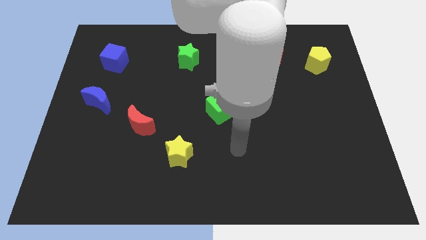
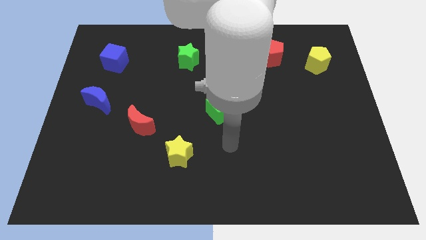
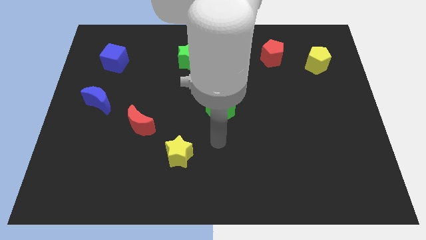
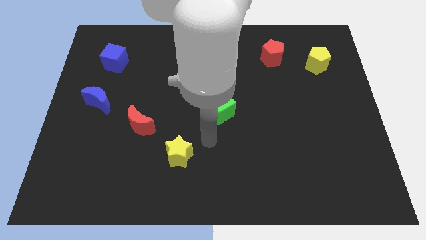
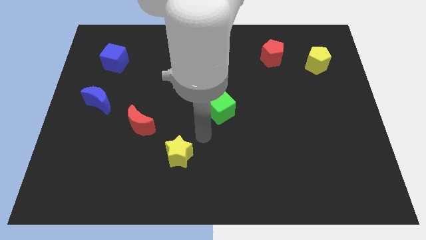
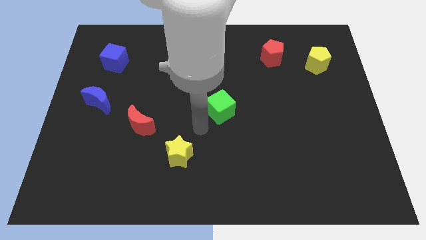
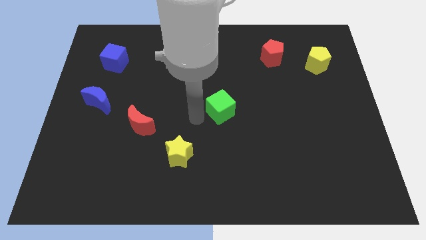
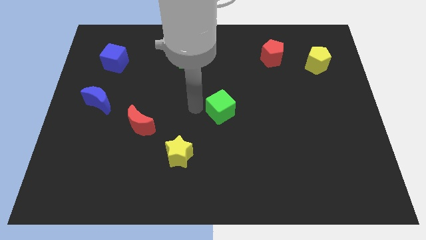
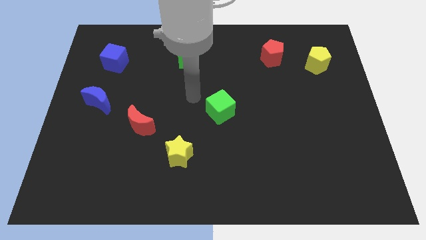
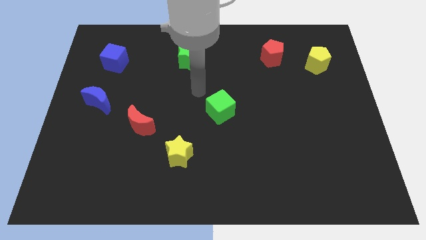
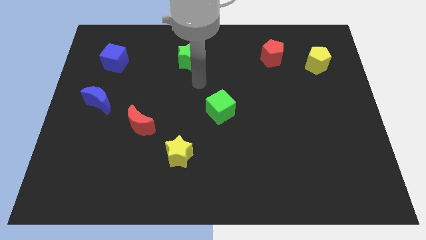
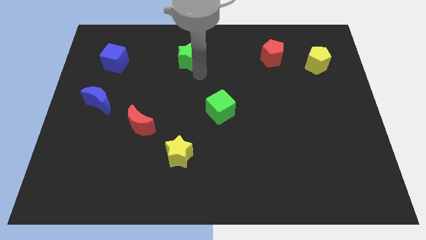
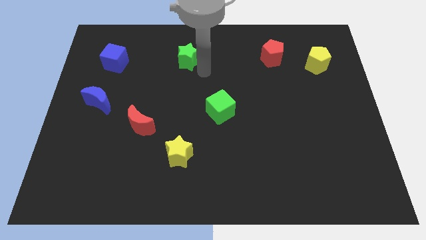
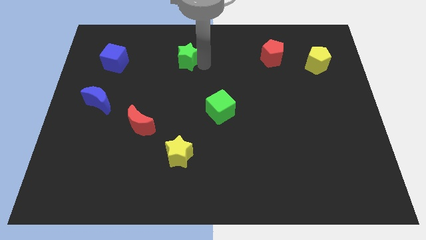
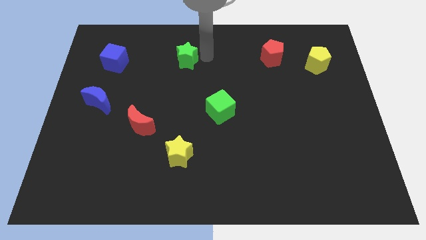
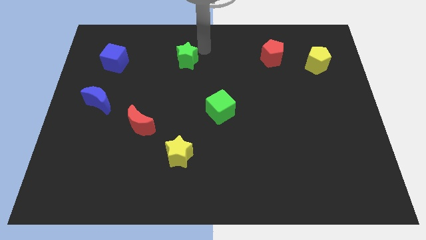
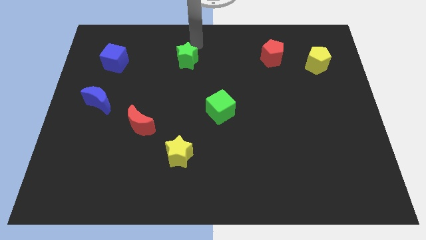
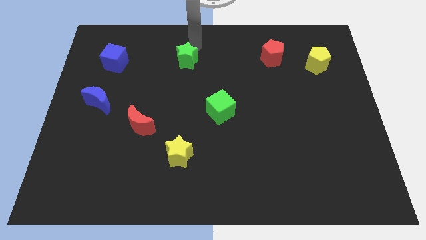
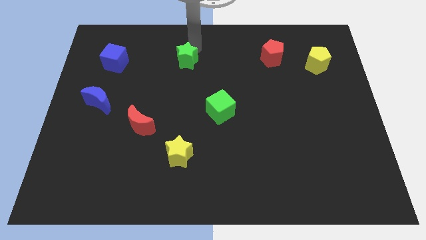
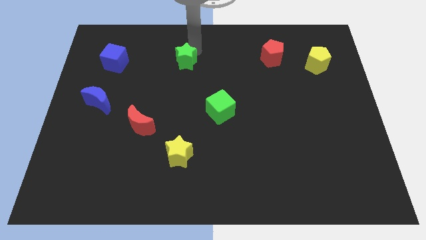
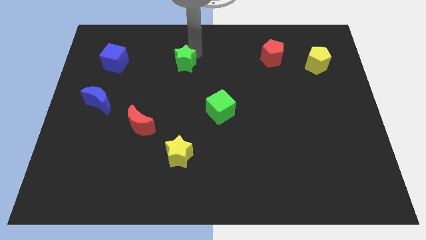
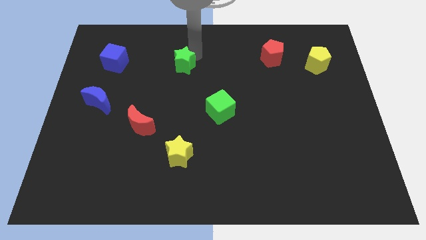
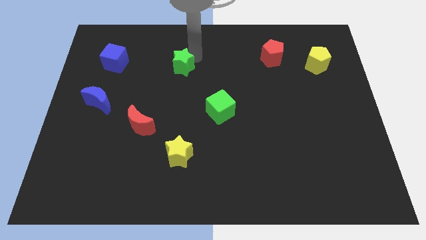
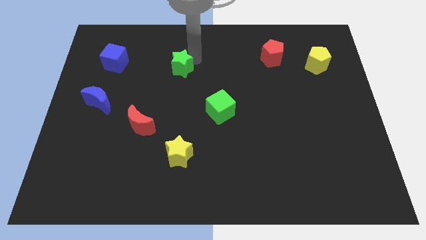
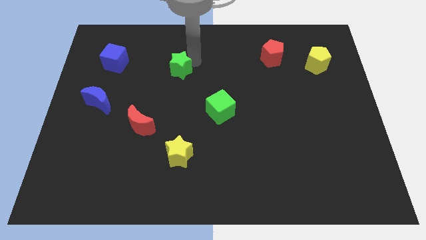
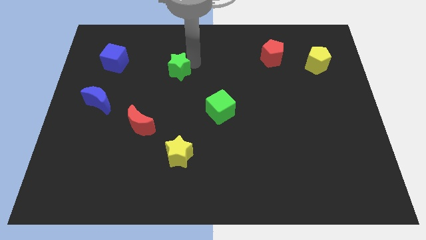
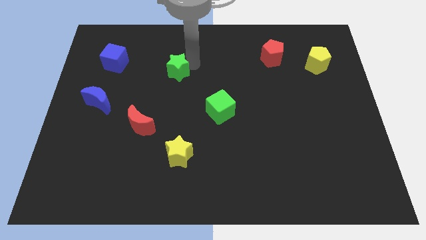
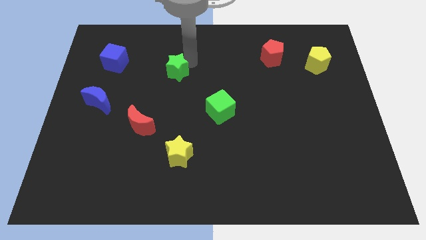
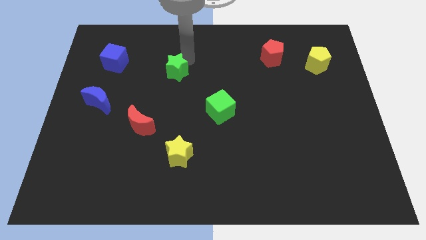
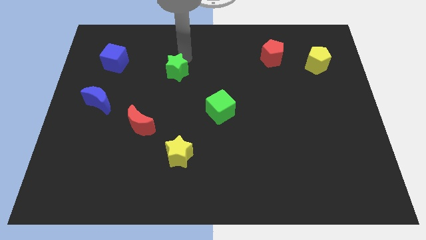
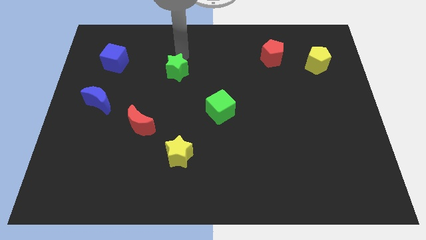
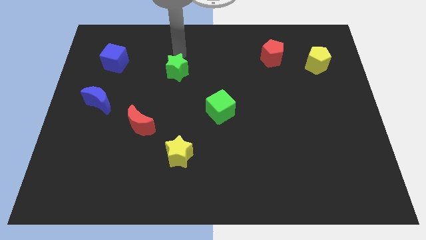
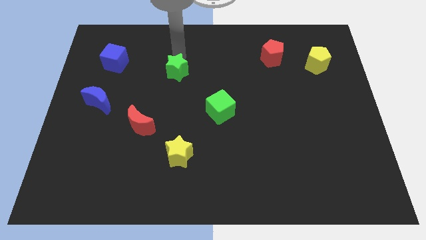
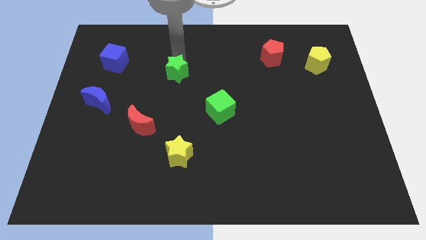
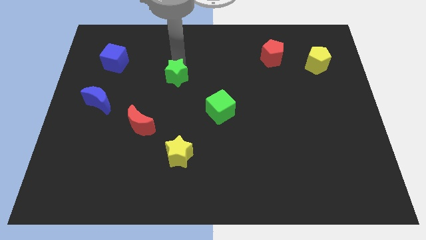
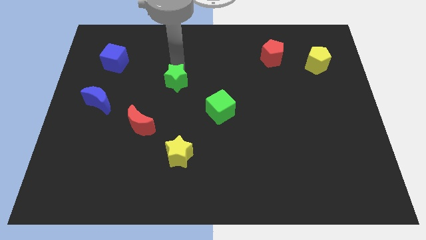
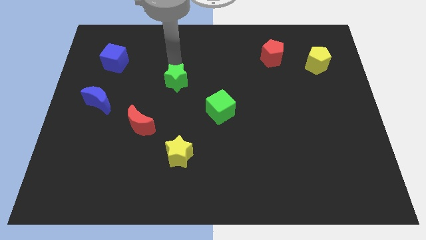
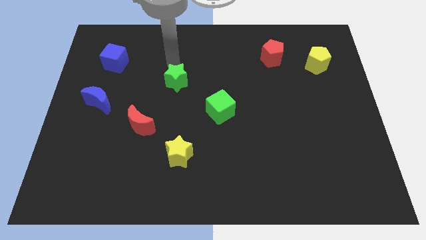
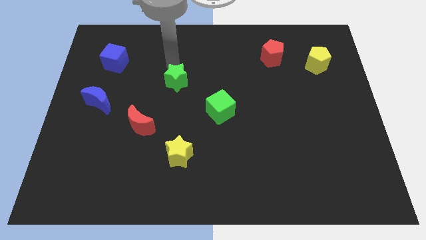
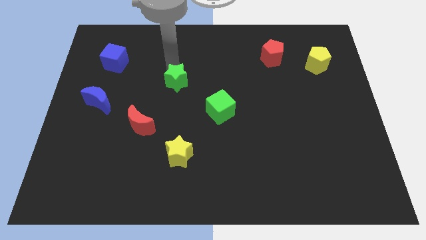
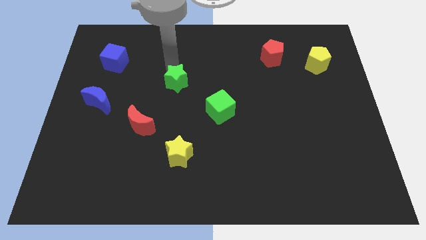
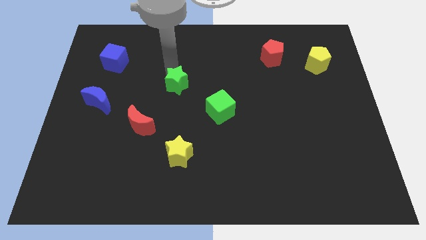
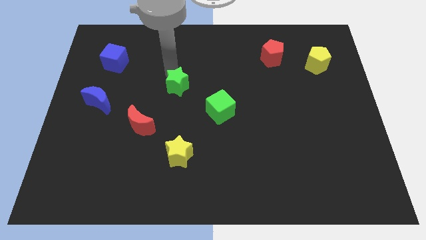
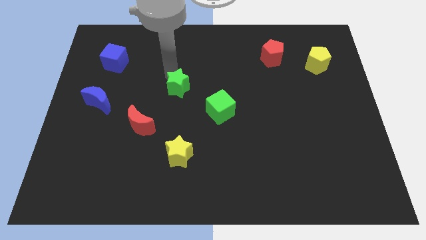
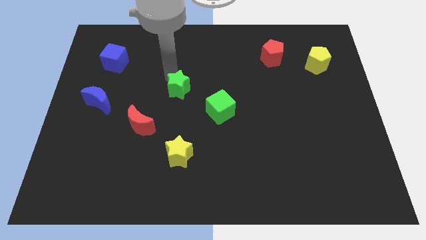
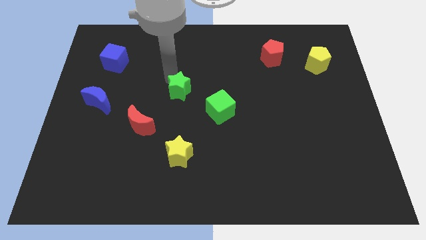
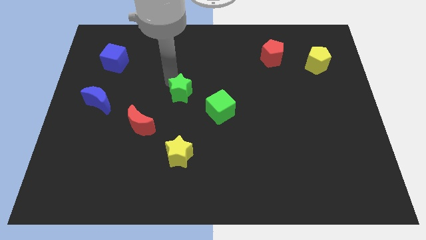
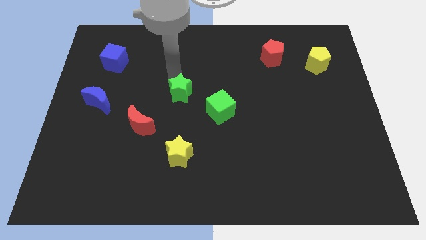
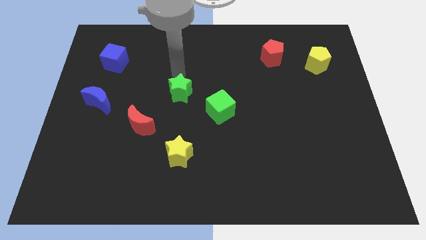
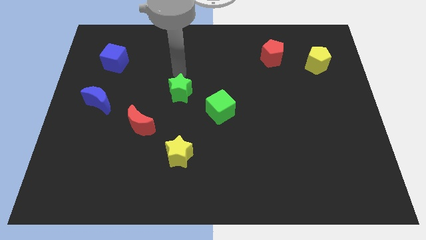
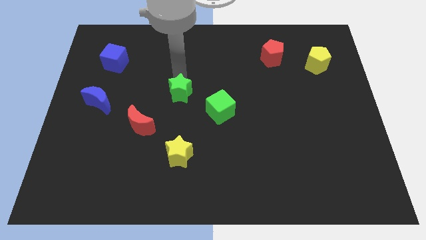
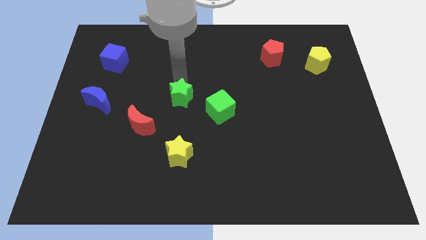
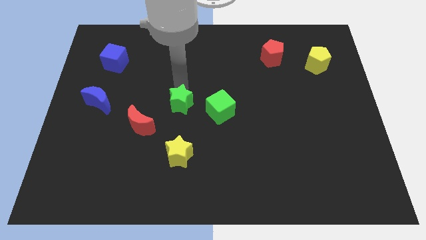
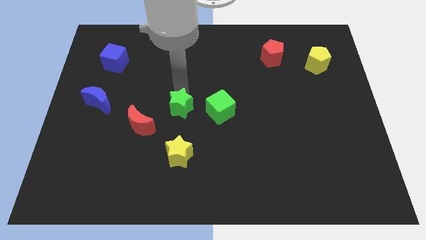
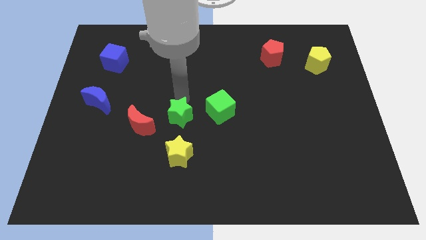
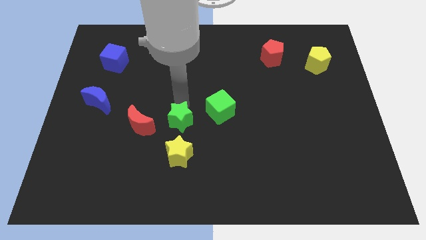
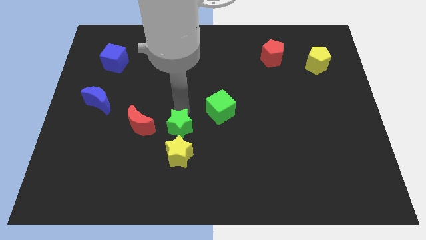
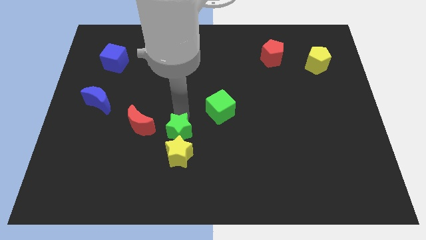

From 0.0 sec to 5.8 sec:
move the green star towards the yellow star

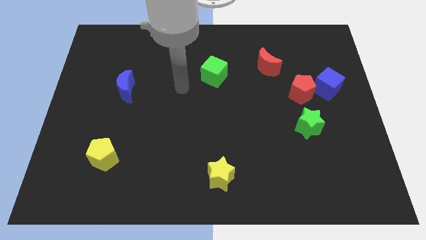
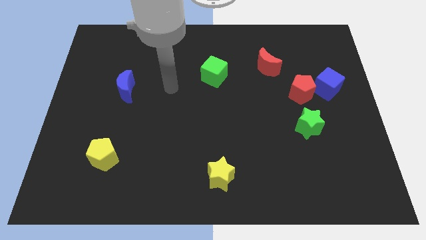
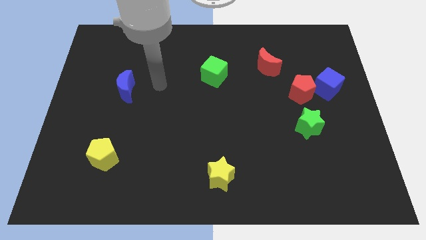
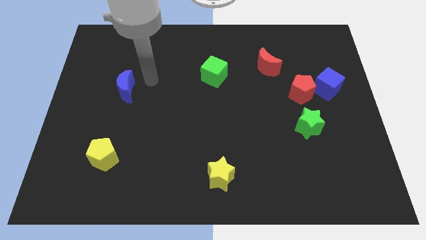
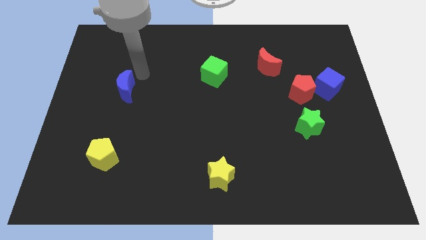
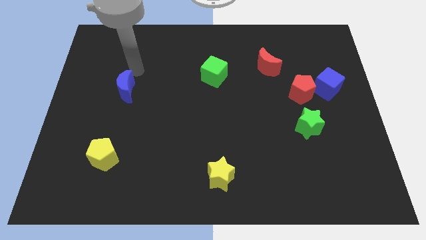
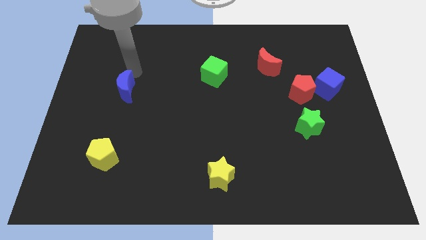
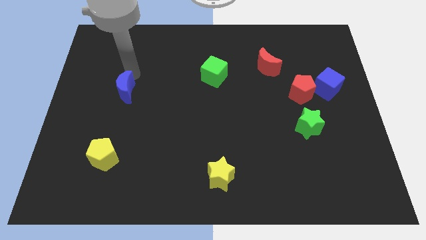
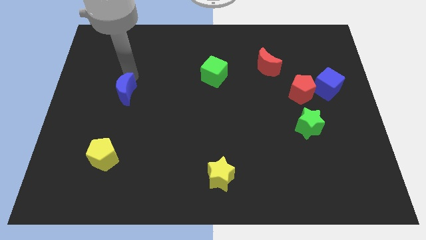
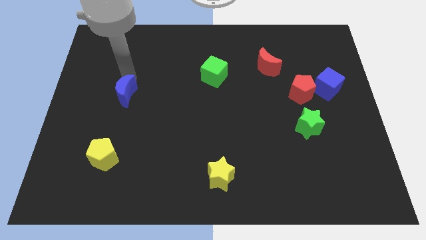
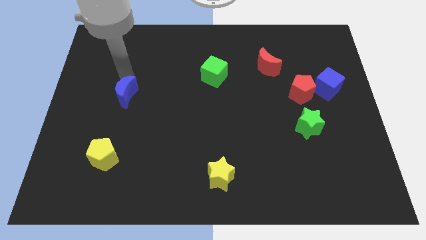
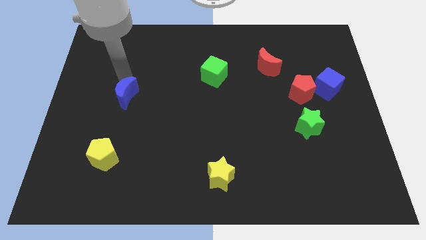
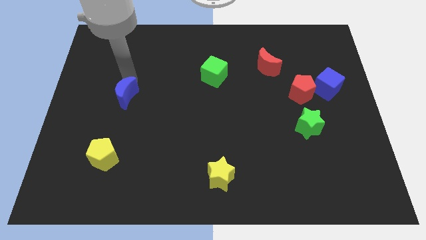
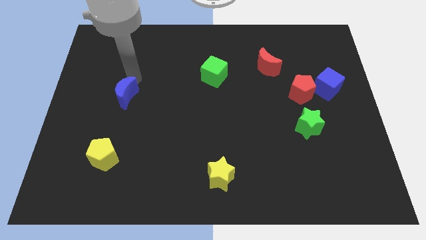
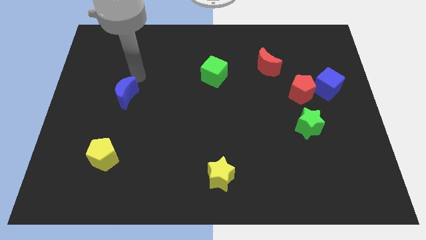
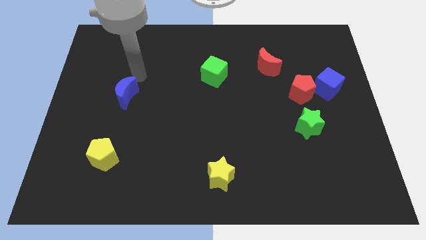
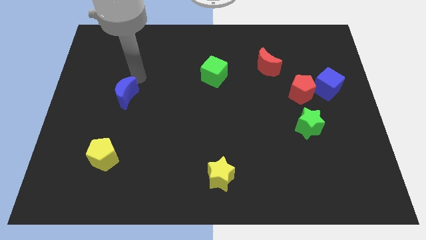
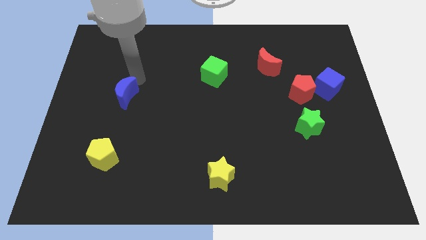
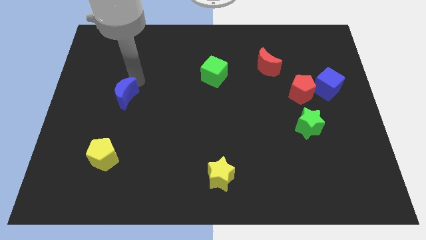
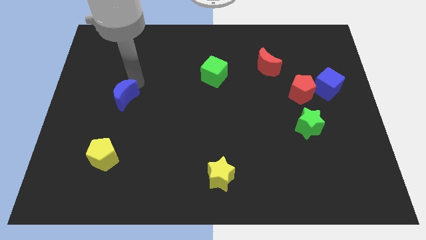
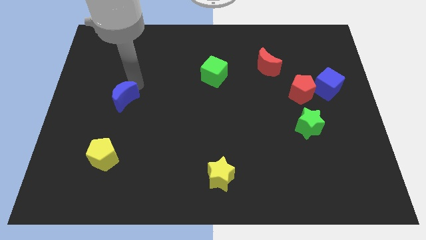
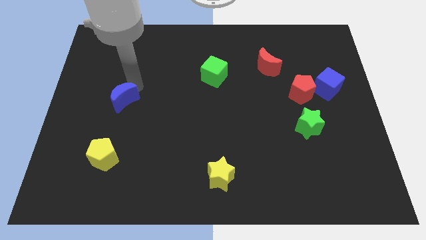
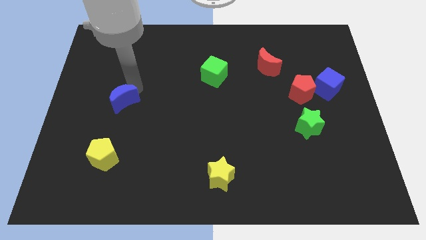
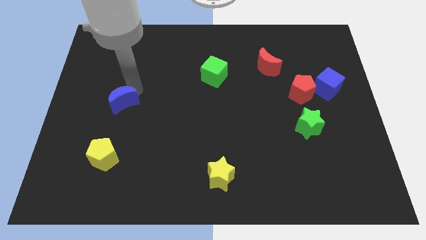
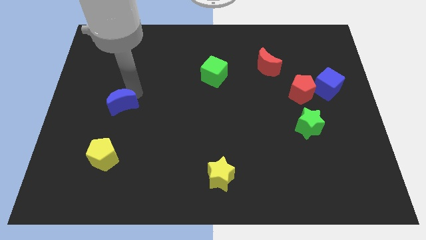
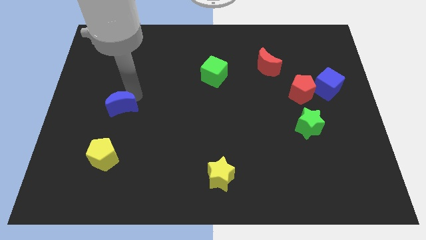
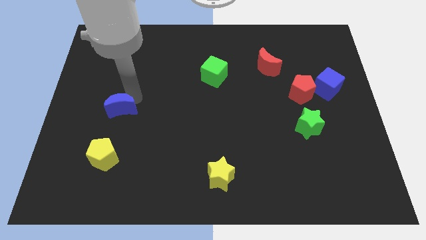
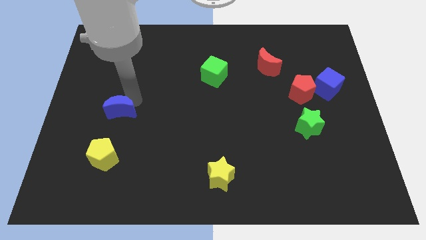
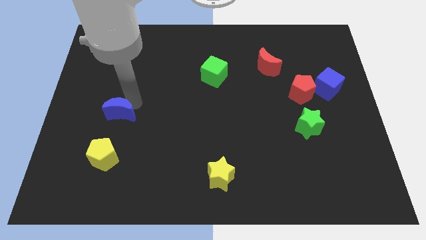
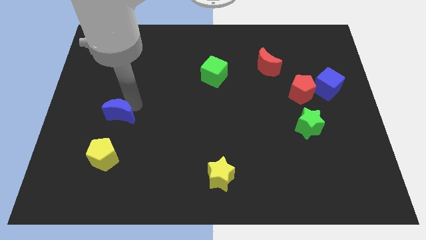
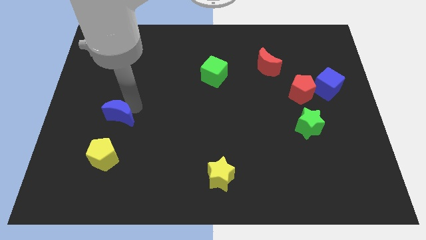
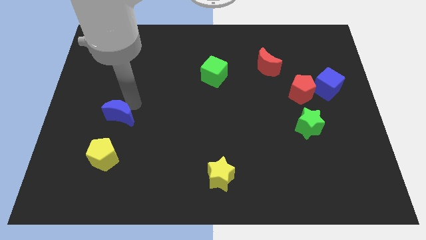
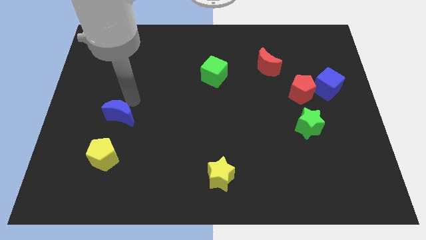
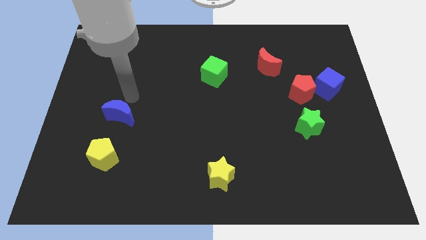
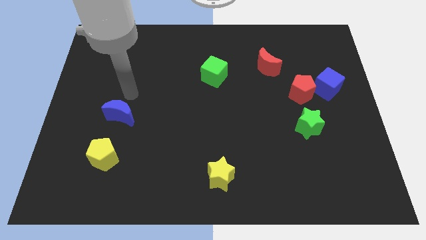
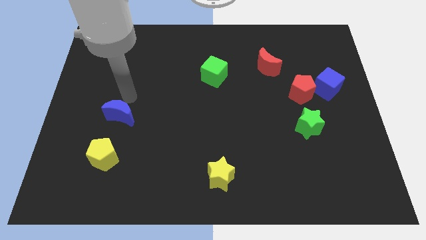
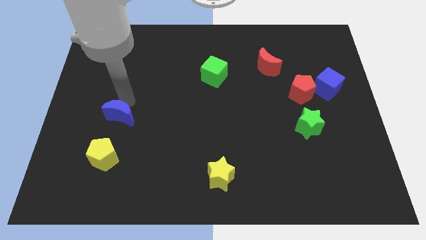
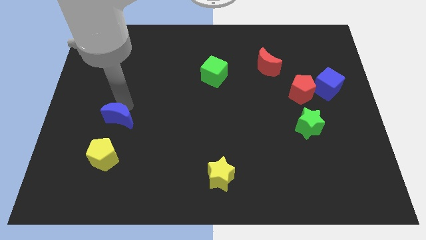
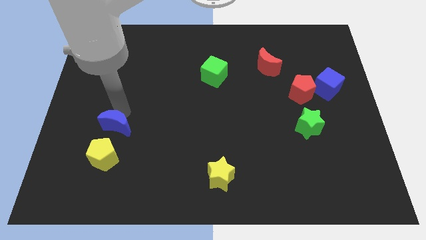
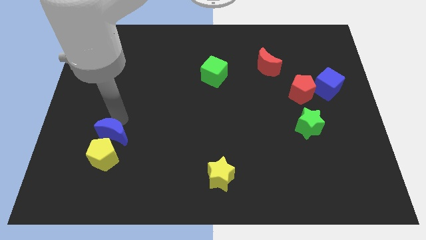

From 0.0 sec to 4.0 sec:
slide the blue moon to the yellow pentagon
